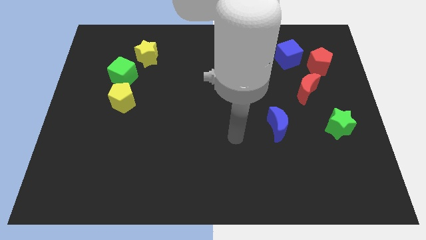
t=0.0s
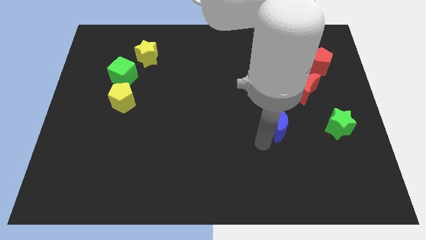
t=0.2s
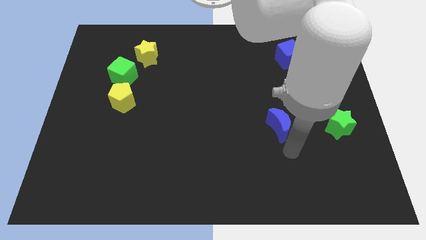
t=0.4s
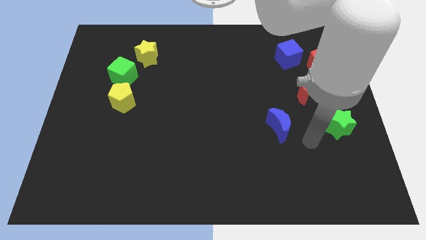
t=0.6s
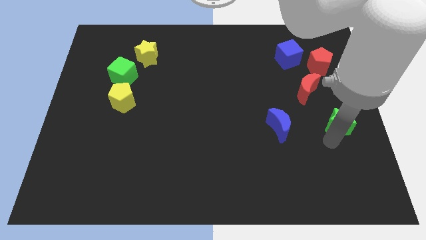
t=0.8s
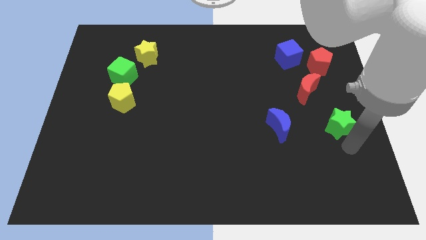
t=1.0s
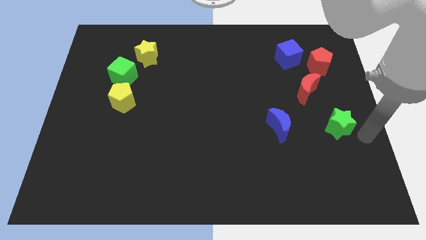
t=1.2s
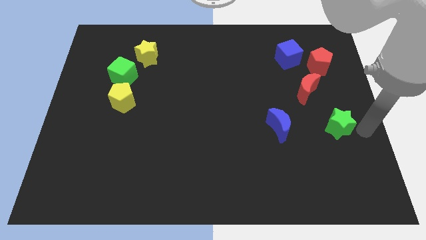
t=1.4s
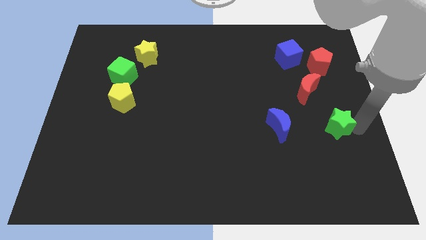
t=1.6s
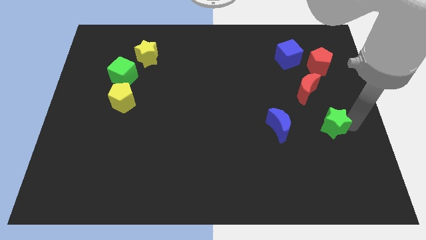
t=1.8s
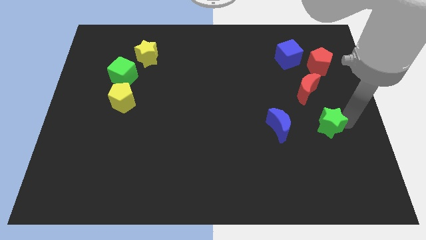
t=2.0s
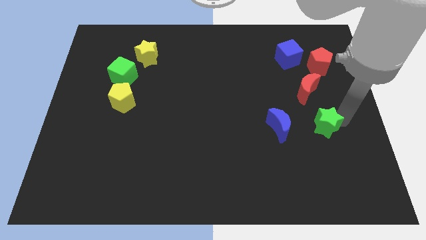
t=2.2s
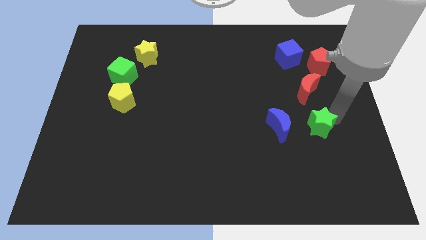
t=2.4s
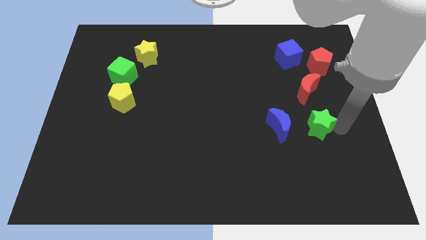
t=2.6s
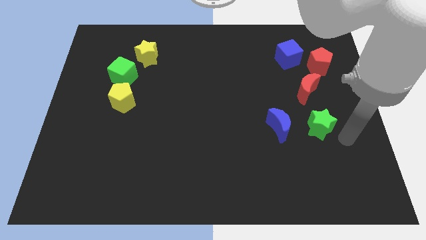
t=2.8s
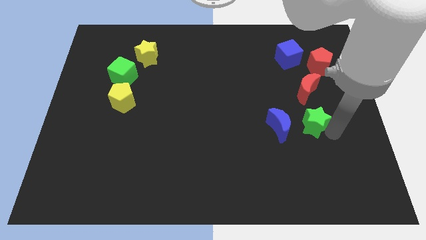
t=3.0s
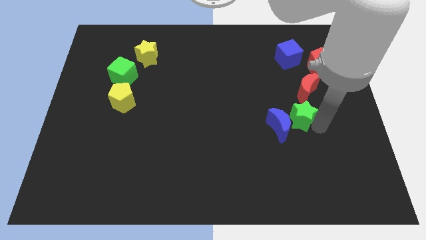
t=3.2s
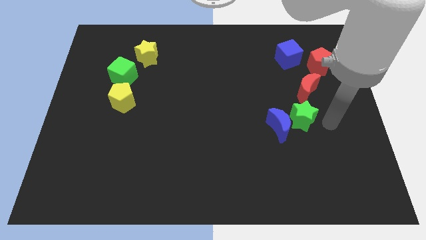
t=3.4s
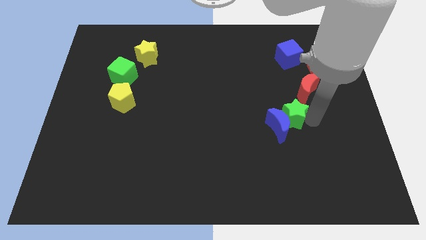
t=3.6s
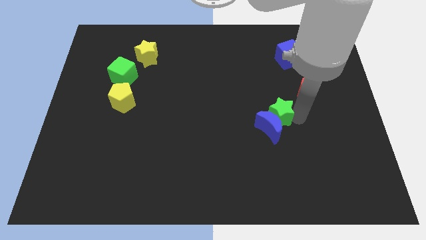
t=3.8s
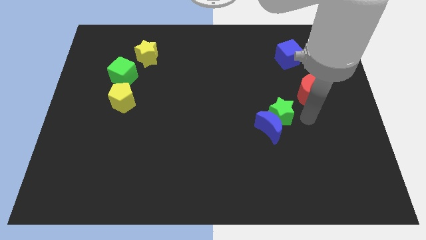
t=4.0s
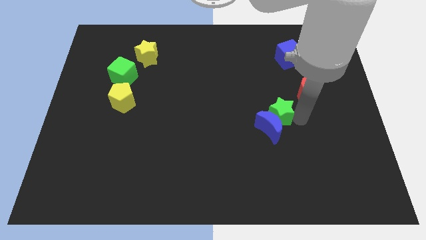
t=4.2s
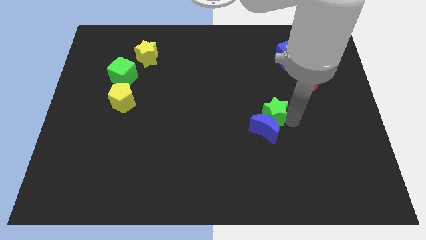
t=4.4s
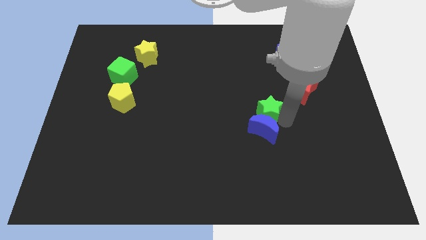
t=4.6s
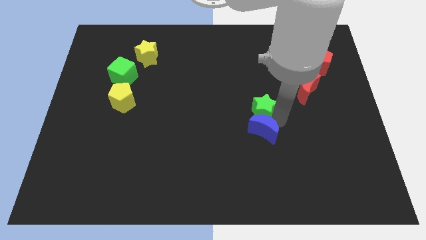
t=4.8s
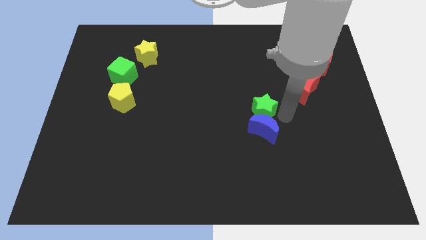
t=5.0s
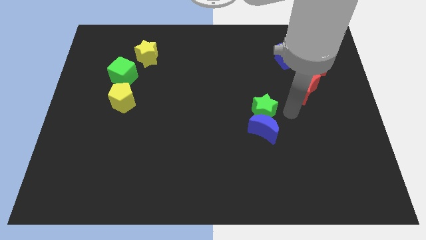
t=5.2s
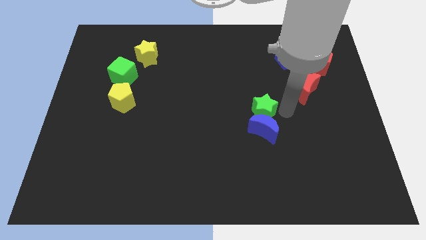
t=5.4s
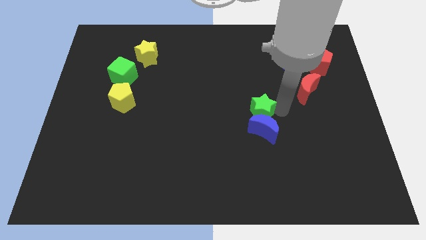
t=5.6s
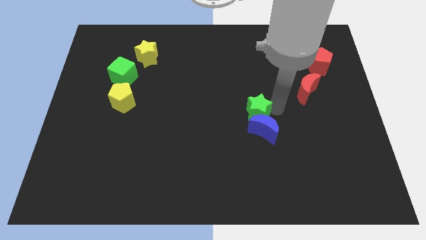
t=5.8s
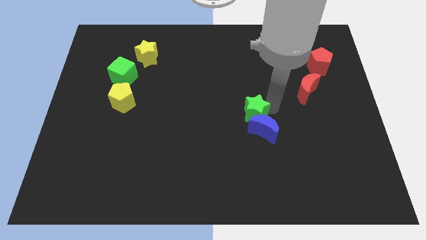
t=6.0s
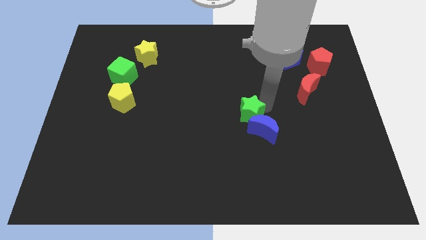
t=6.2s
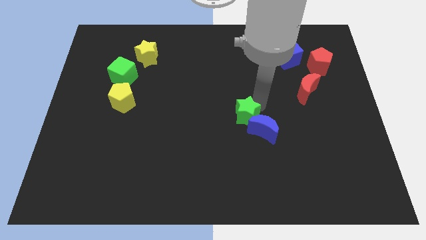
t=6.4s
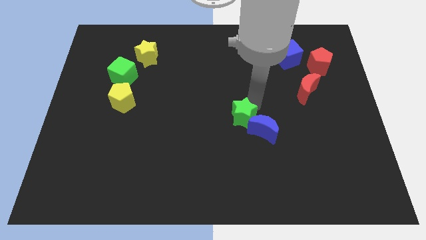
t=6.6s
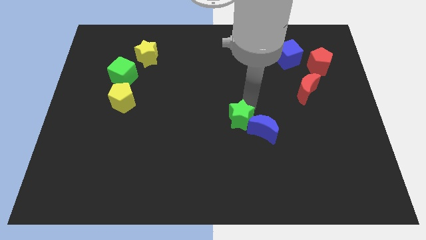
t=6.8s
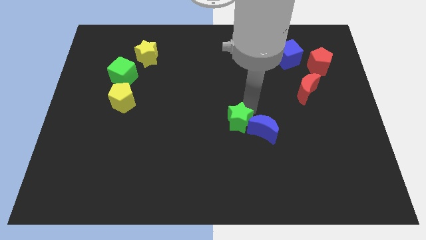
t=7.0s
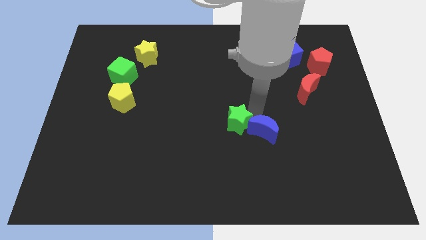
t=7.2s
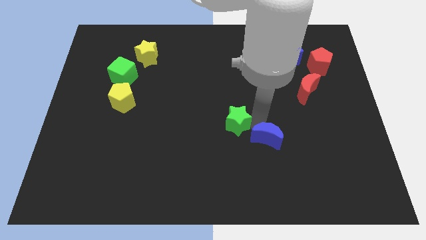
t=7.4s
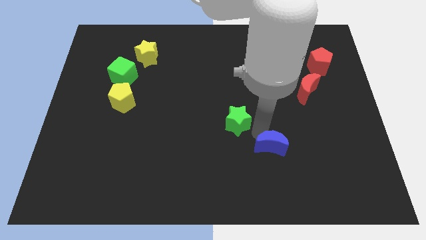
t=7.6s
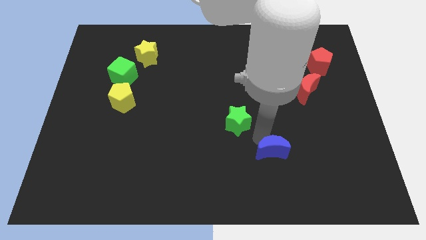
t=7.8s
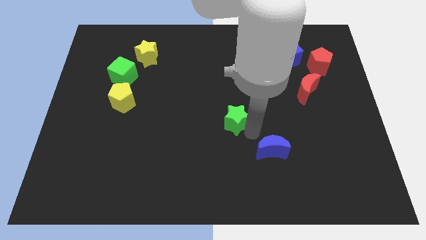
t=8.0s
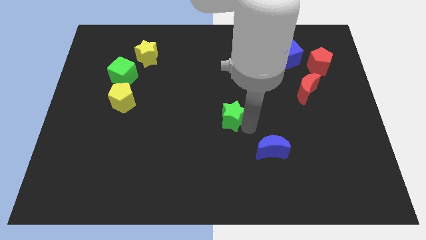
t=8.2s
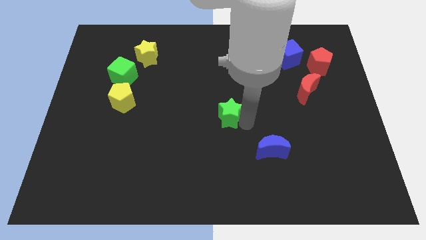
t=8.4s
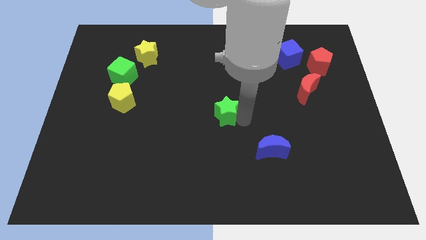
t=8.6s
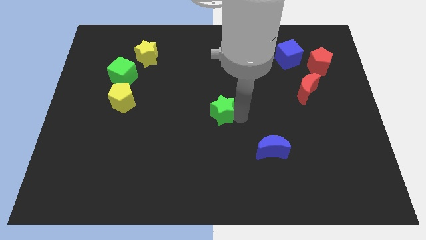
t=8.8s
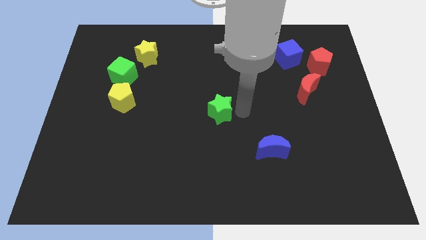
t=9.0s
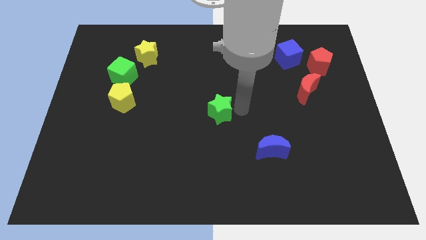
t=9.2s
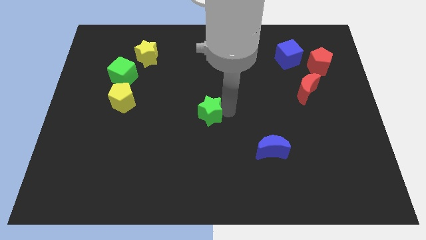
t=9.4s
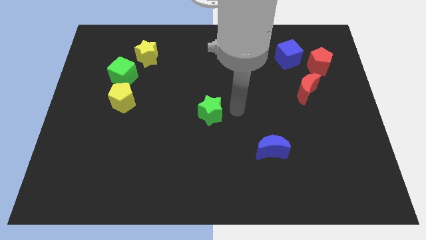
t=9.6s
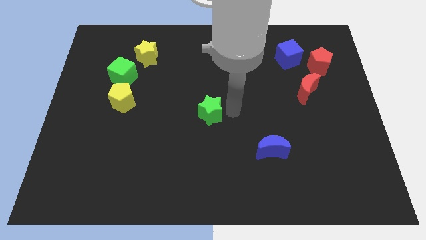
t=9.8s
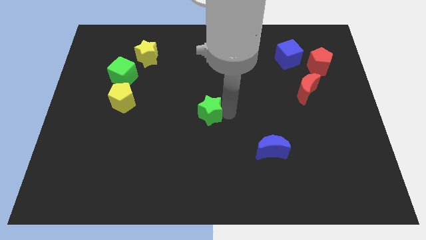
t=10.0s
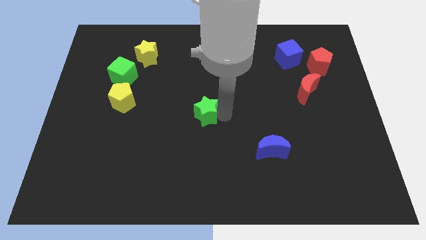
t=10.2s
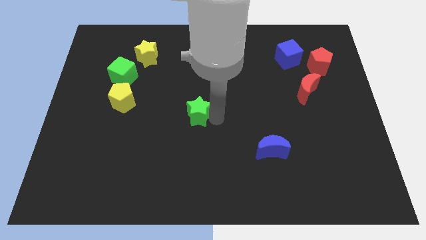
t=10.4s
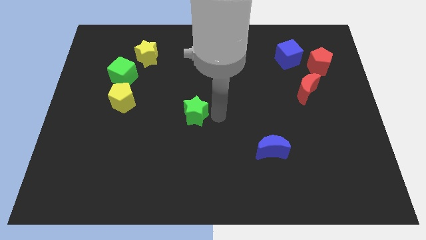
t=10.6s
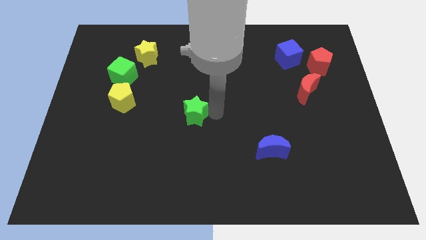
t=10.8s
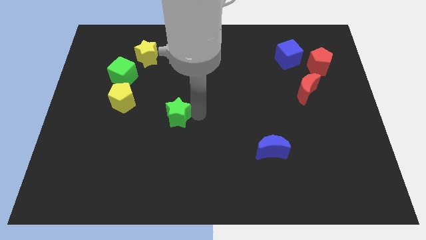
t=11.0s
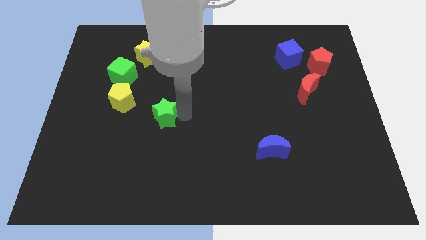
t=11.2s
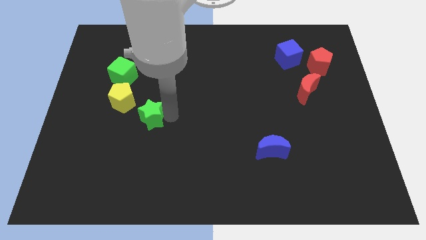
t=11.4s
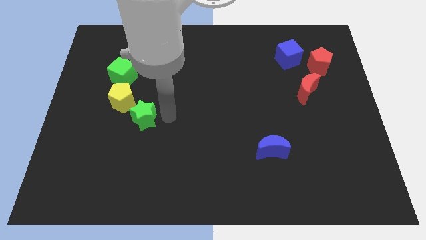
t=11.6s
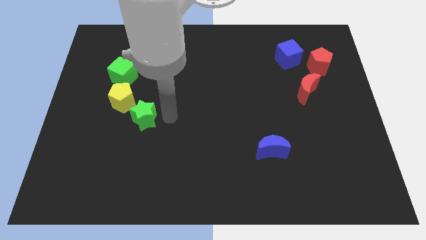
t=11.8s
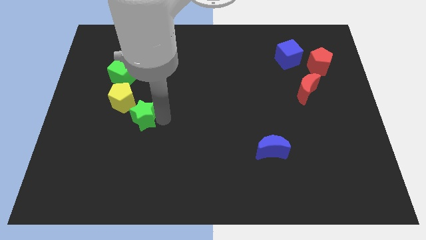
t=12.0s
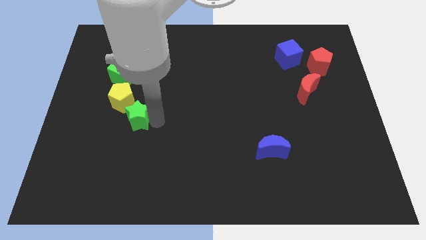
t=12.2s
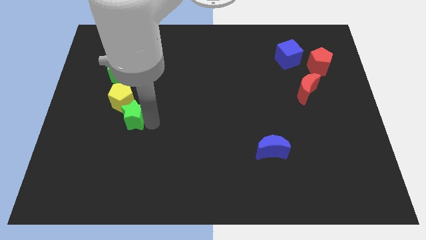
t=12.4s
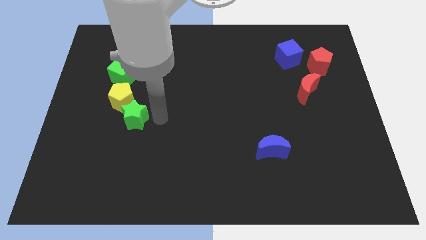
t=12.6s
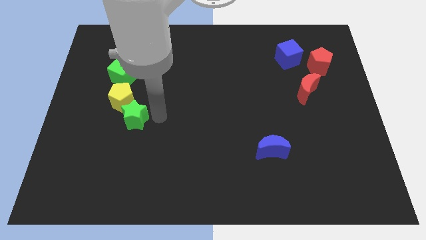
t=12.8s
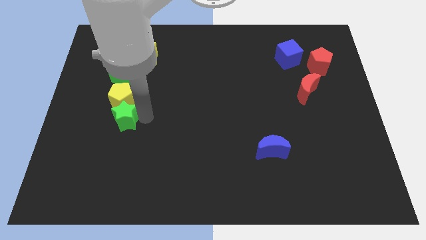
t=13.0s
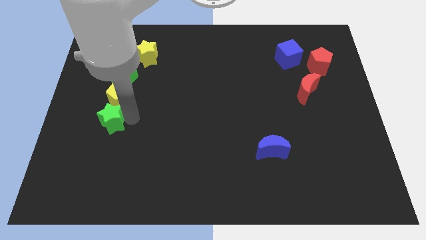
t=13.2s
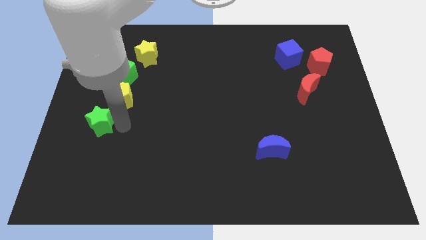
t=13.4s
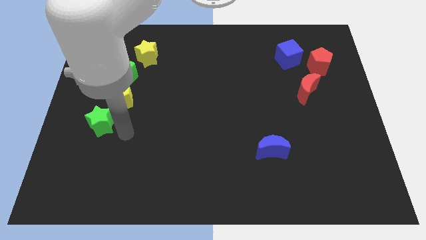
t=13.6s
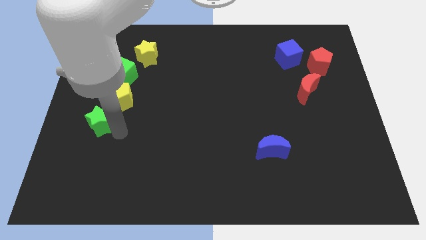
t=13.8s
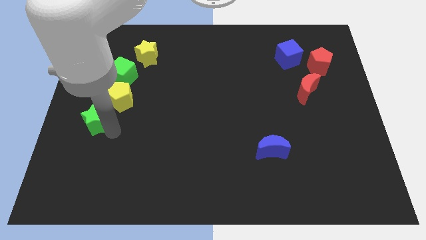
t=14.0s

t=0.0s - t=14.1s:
put the green star to the left side of the board
